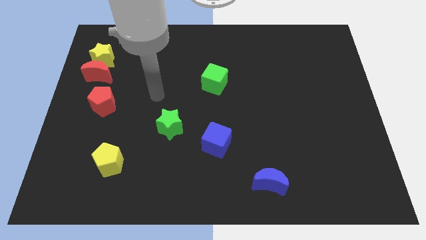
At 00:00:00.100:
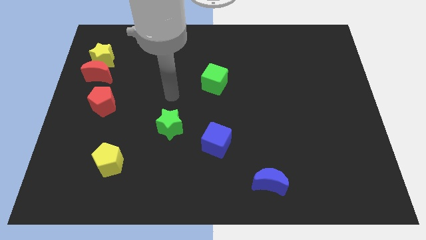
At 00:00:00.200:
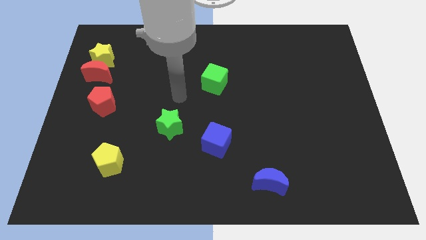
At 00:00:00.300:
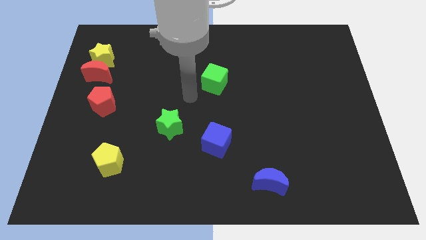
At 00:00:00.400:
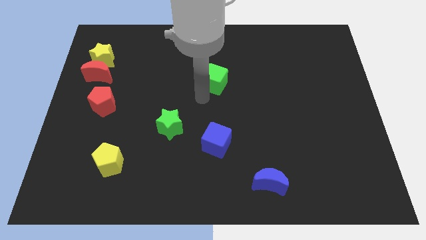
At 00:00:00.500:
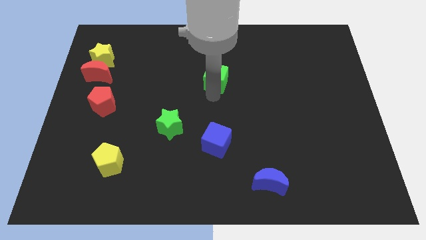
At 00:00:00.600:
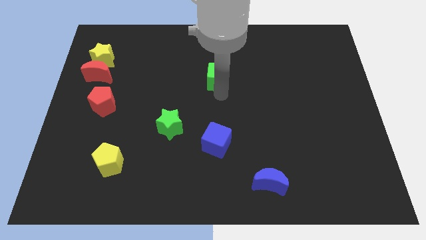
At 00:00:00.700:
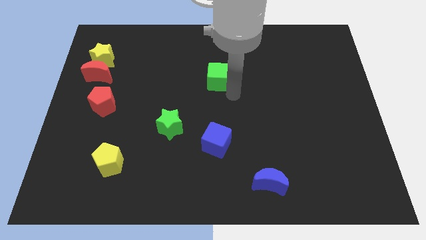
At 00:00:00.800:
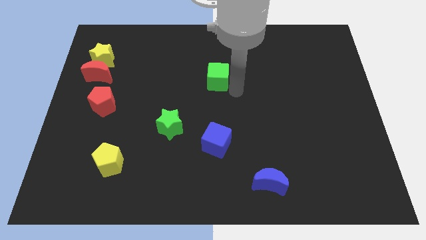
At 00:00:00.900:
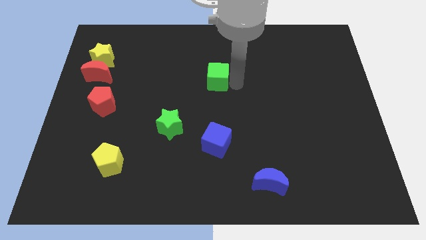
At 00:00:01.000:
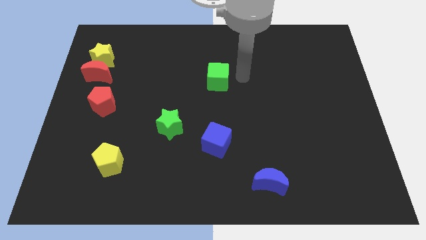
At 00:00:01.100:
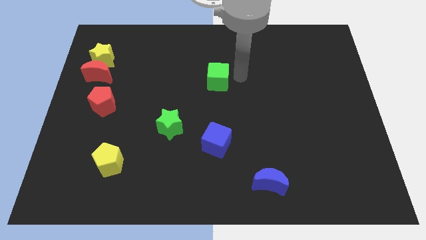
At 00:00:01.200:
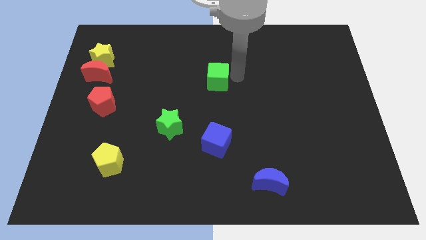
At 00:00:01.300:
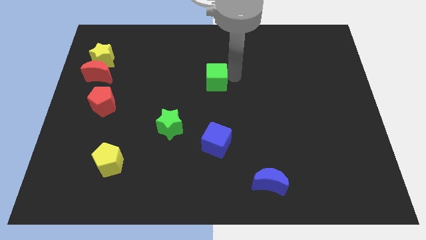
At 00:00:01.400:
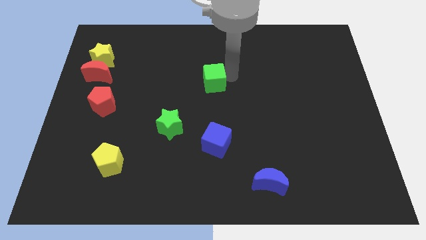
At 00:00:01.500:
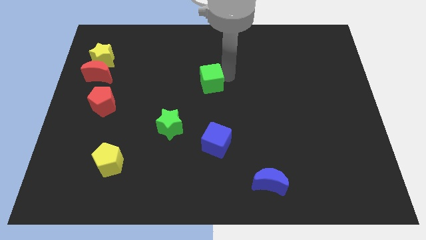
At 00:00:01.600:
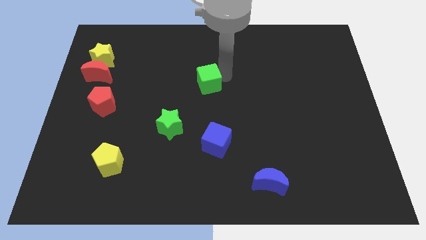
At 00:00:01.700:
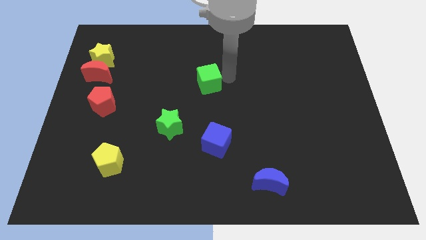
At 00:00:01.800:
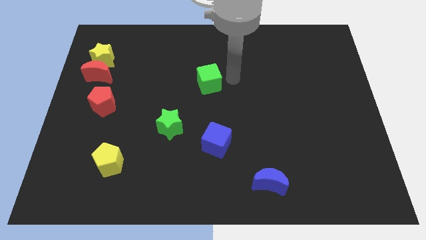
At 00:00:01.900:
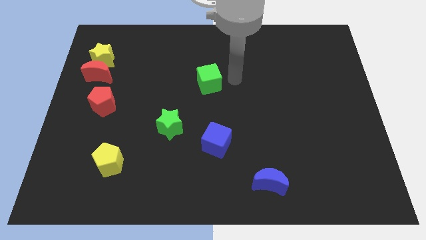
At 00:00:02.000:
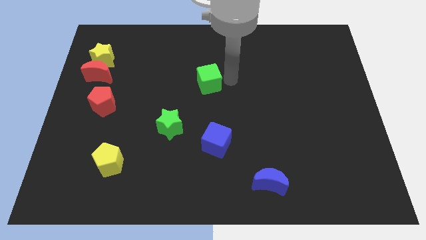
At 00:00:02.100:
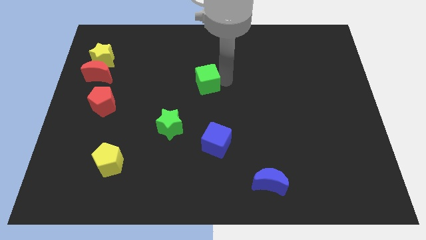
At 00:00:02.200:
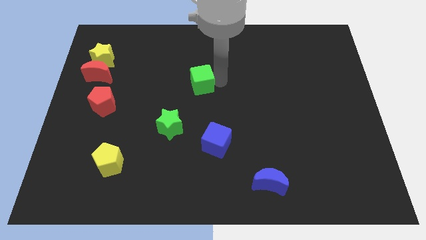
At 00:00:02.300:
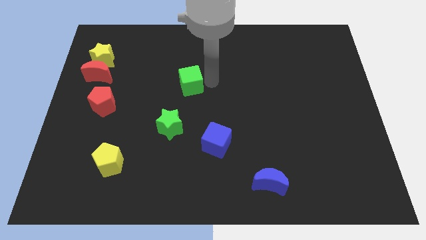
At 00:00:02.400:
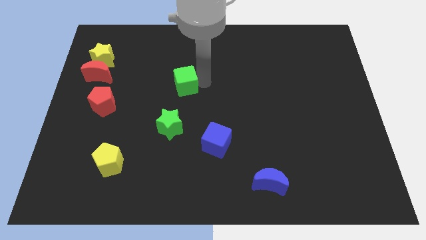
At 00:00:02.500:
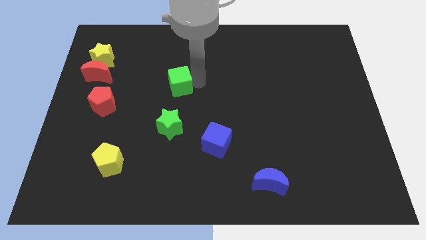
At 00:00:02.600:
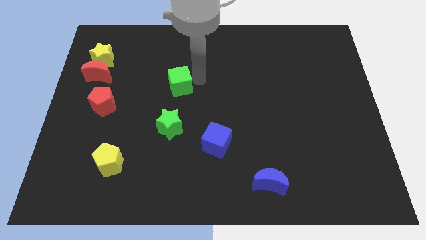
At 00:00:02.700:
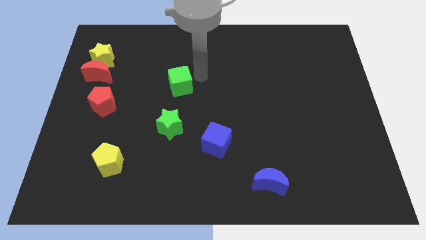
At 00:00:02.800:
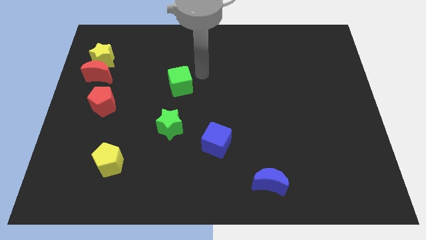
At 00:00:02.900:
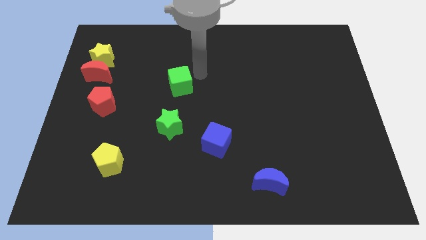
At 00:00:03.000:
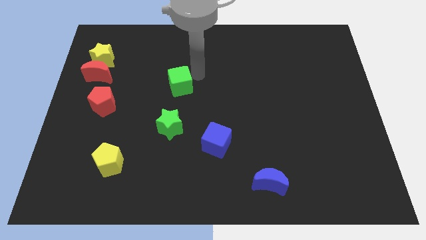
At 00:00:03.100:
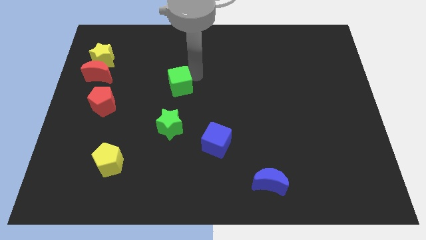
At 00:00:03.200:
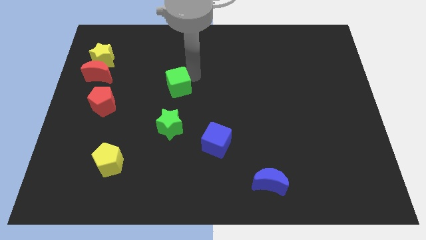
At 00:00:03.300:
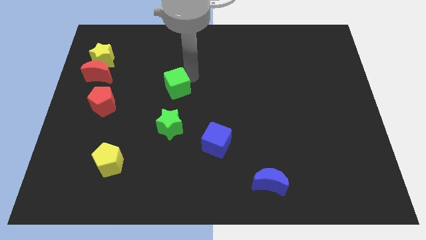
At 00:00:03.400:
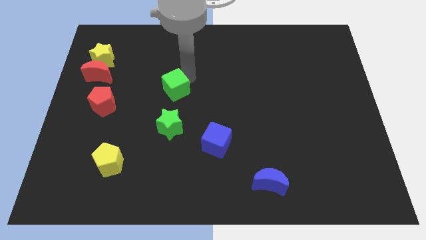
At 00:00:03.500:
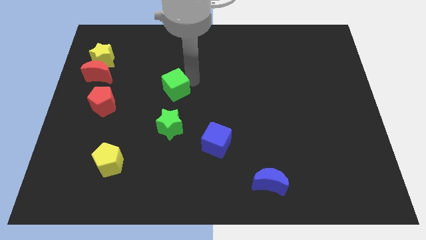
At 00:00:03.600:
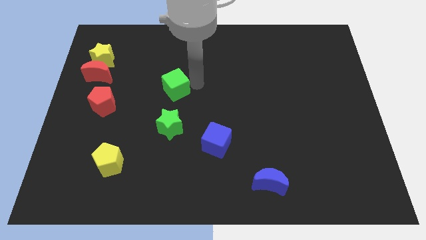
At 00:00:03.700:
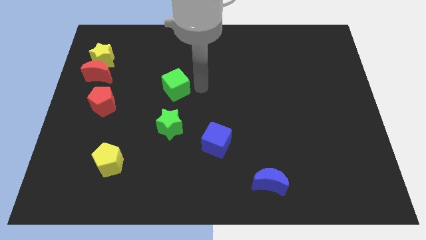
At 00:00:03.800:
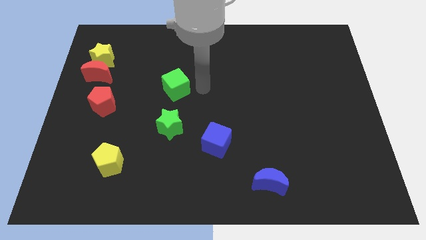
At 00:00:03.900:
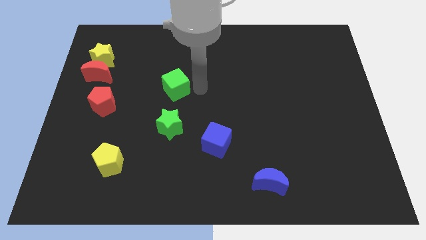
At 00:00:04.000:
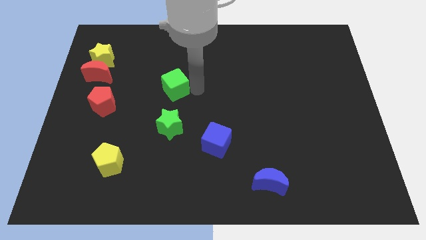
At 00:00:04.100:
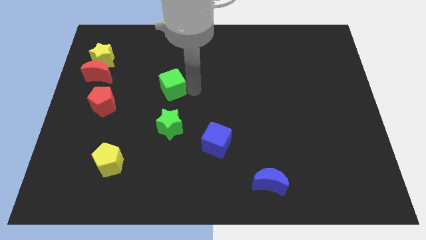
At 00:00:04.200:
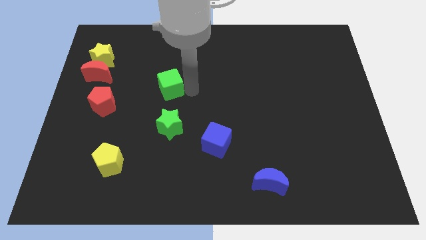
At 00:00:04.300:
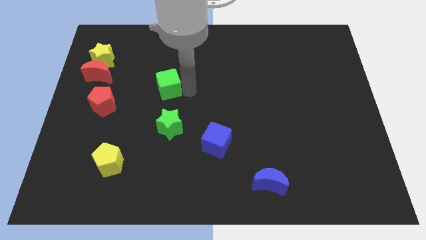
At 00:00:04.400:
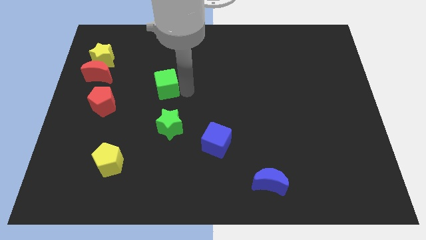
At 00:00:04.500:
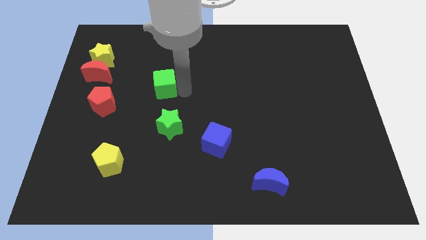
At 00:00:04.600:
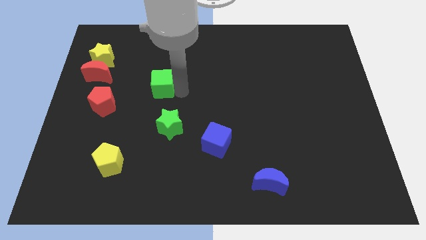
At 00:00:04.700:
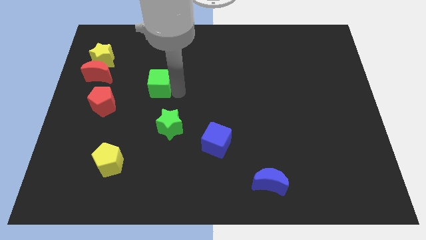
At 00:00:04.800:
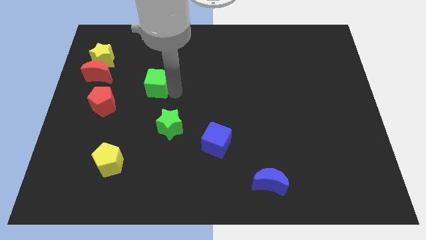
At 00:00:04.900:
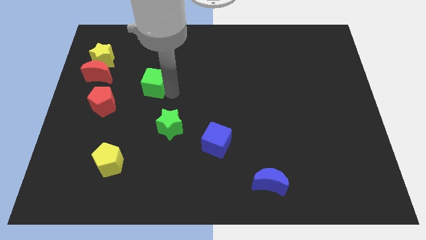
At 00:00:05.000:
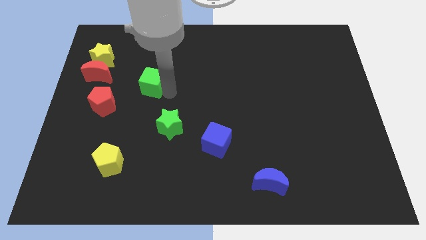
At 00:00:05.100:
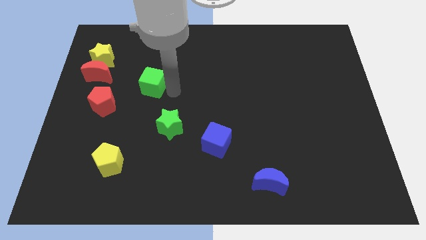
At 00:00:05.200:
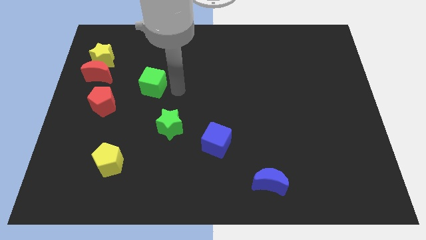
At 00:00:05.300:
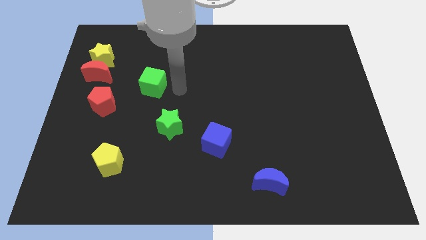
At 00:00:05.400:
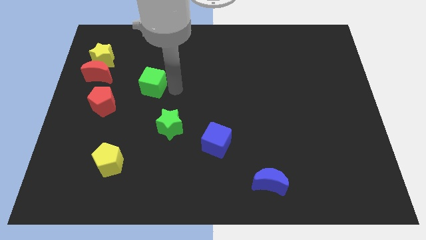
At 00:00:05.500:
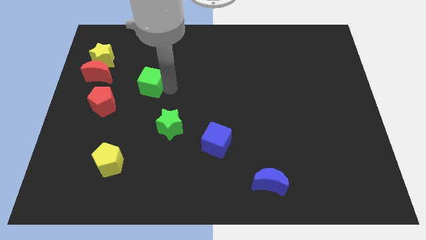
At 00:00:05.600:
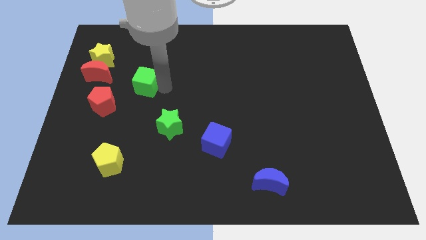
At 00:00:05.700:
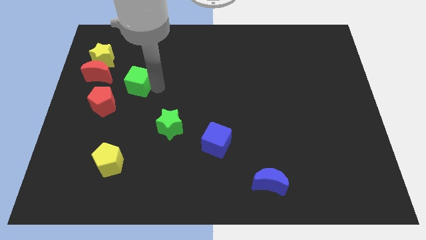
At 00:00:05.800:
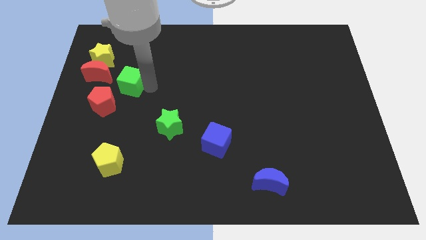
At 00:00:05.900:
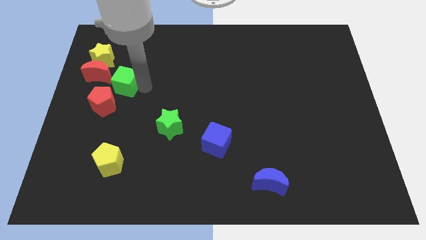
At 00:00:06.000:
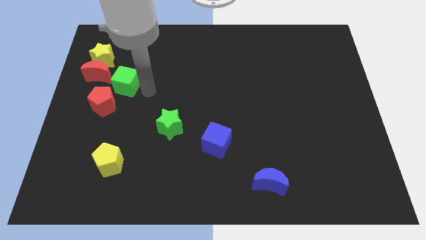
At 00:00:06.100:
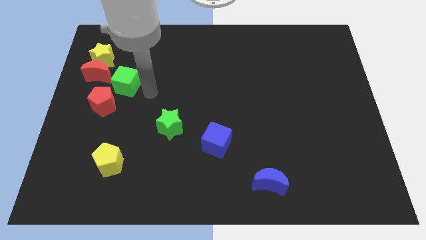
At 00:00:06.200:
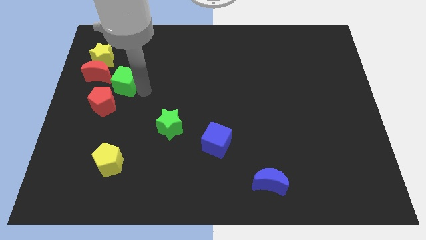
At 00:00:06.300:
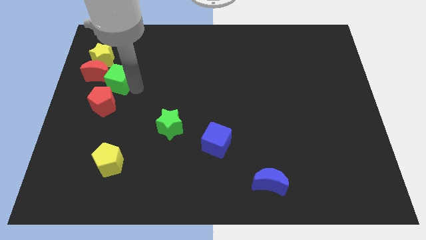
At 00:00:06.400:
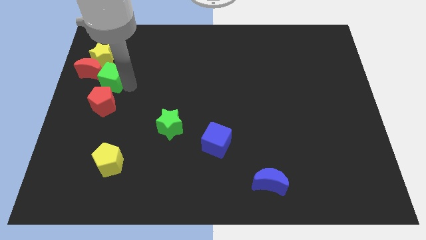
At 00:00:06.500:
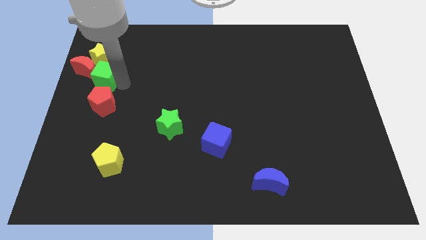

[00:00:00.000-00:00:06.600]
push the green cube next to the red moon
